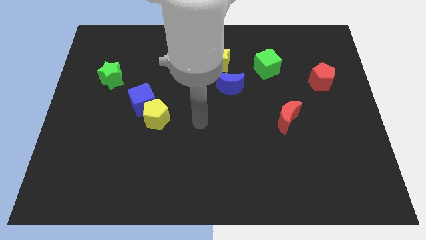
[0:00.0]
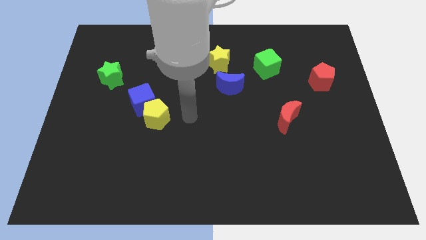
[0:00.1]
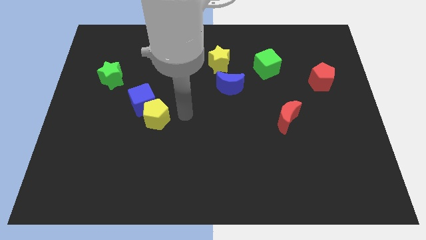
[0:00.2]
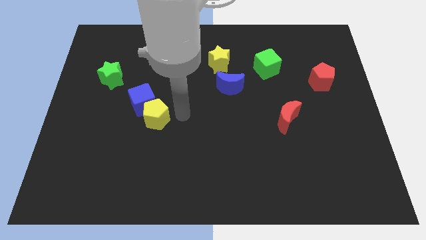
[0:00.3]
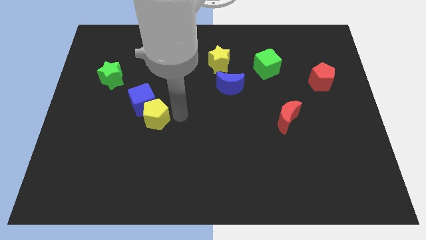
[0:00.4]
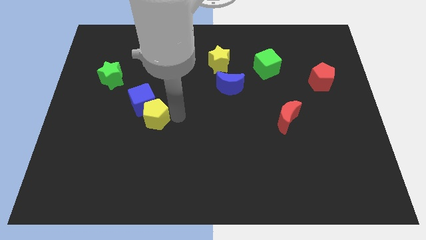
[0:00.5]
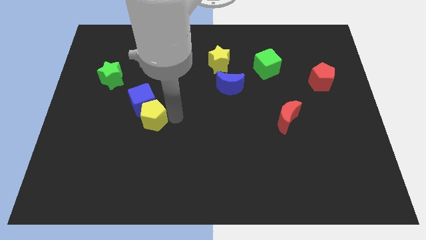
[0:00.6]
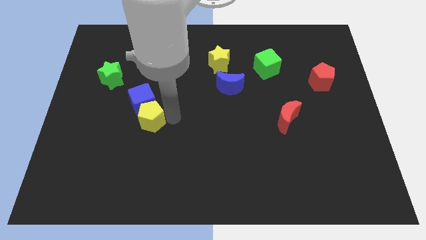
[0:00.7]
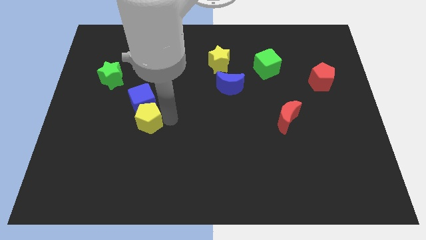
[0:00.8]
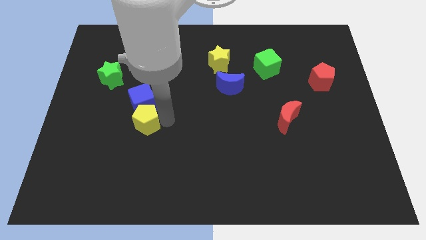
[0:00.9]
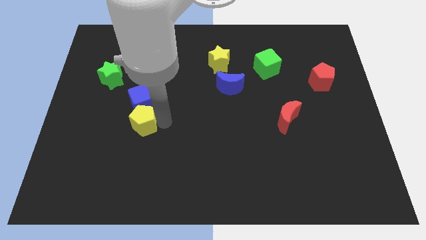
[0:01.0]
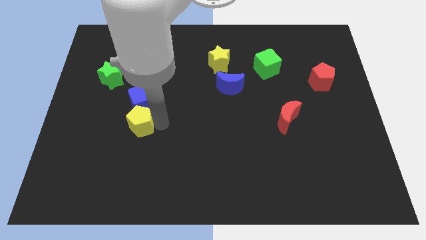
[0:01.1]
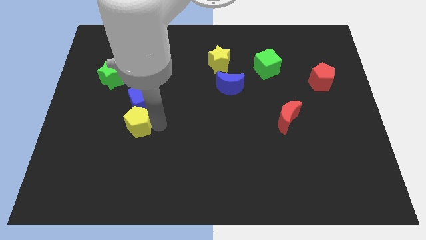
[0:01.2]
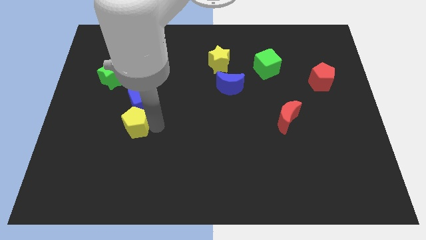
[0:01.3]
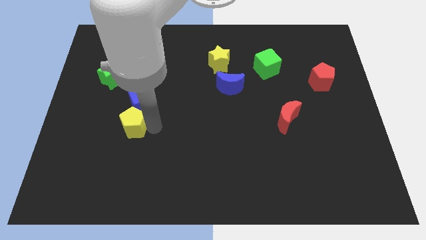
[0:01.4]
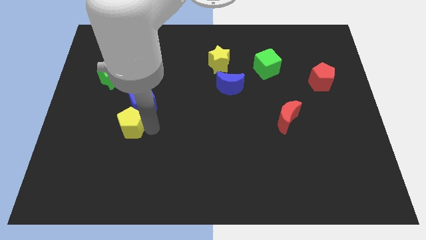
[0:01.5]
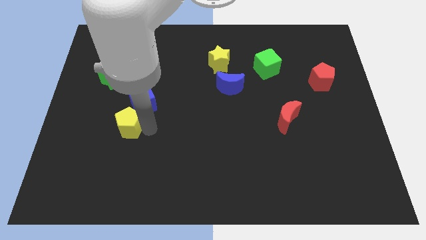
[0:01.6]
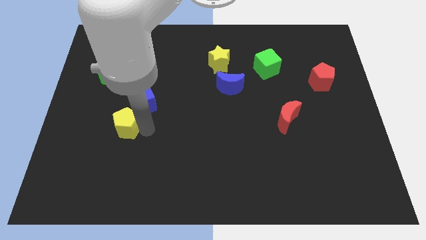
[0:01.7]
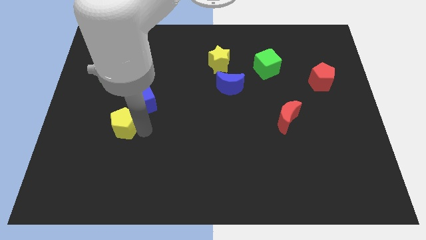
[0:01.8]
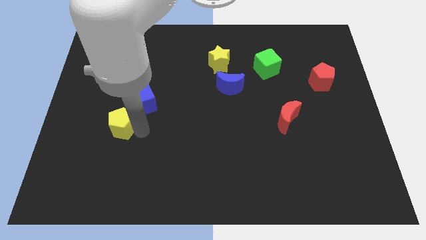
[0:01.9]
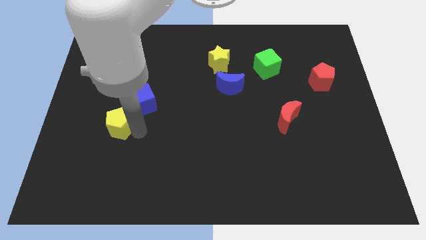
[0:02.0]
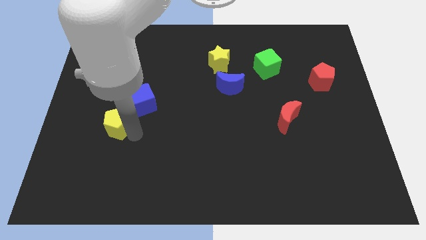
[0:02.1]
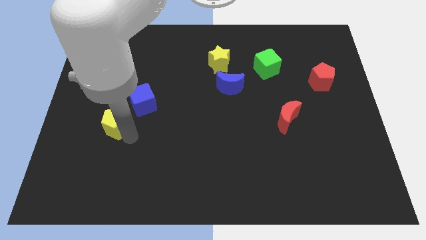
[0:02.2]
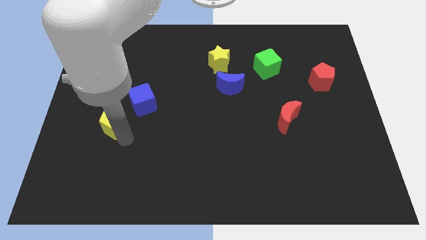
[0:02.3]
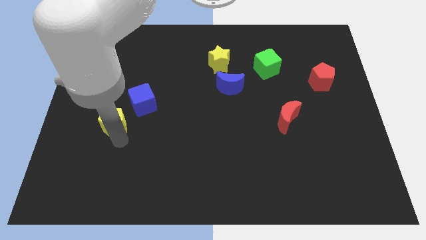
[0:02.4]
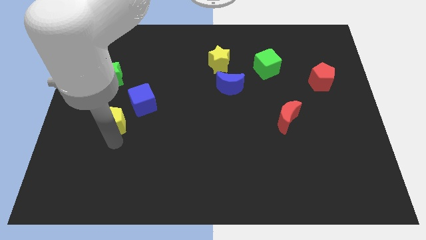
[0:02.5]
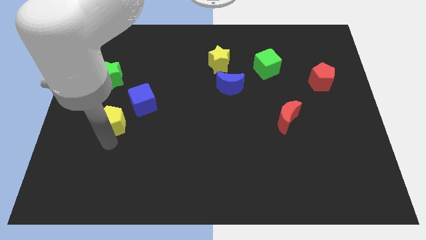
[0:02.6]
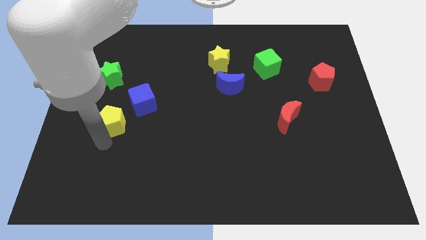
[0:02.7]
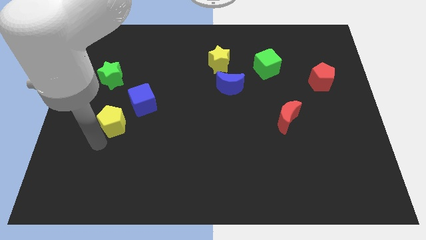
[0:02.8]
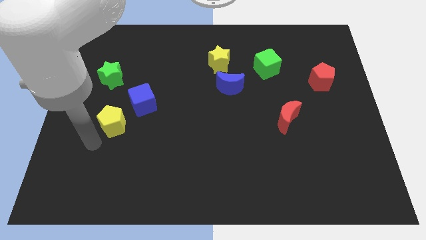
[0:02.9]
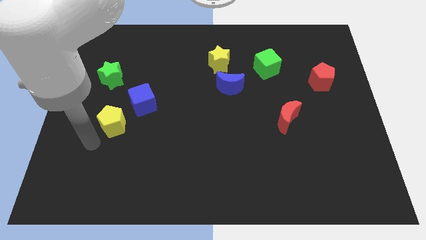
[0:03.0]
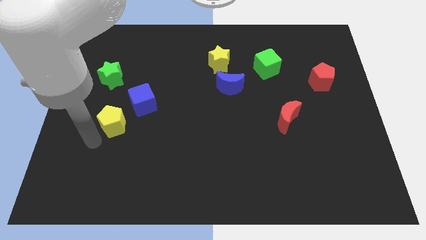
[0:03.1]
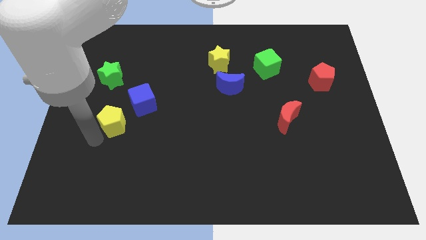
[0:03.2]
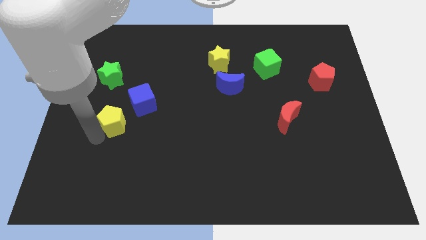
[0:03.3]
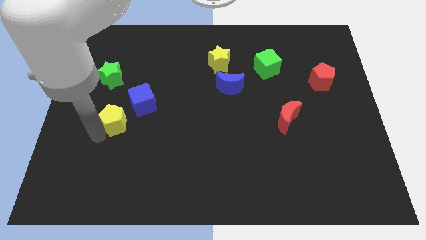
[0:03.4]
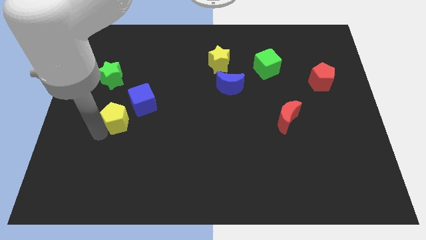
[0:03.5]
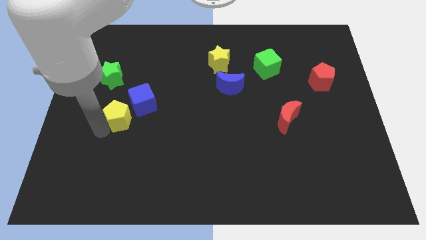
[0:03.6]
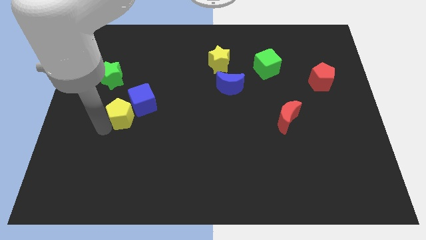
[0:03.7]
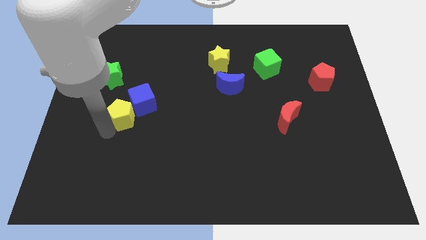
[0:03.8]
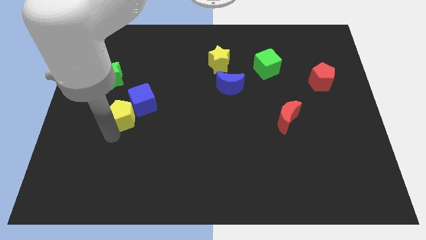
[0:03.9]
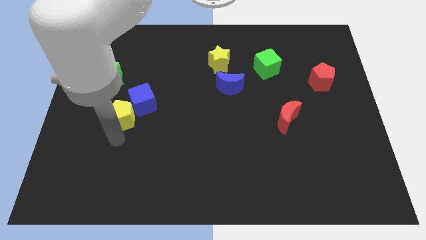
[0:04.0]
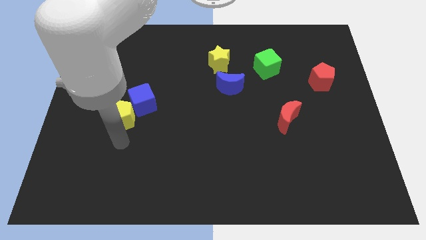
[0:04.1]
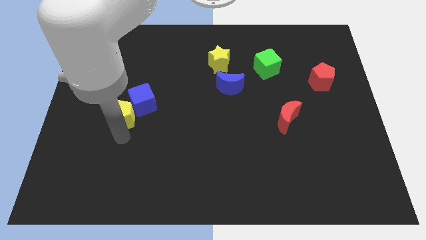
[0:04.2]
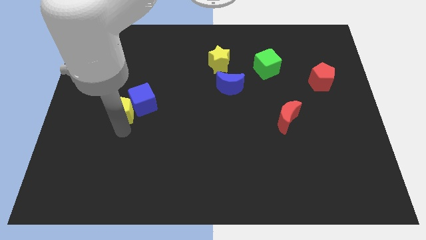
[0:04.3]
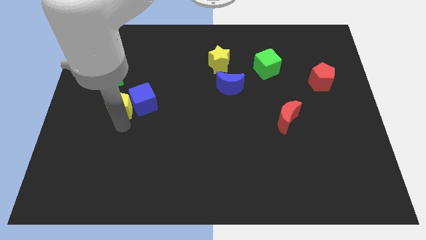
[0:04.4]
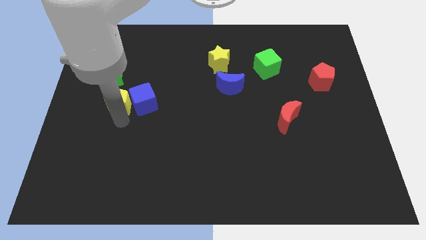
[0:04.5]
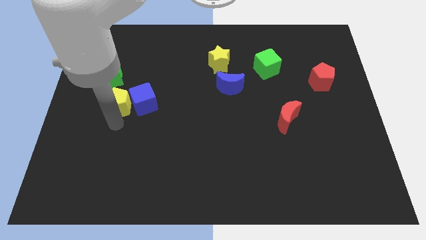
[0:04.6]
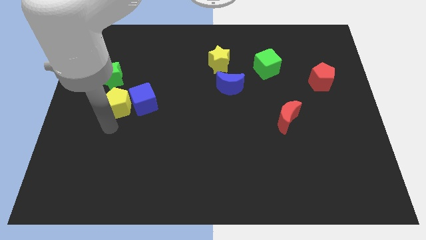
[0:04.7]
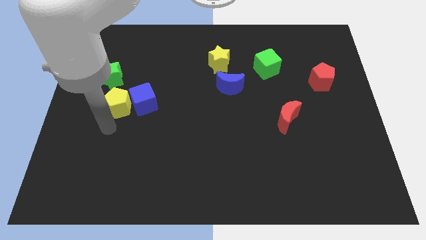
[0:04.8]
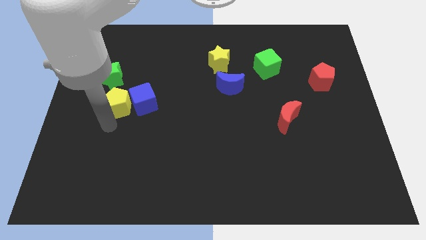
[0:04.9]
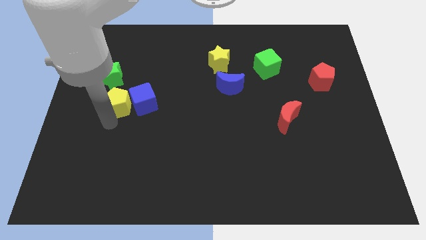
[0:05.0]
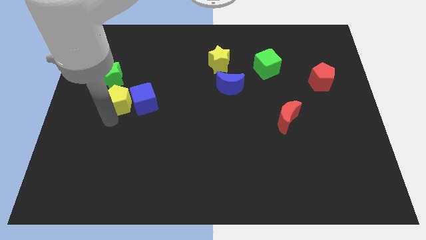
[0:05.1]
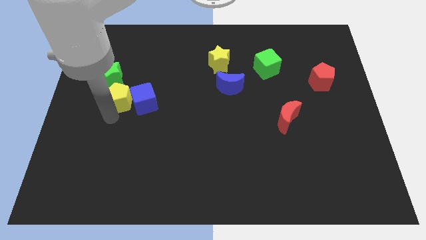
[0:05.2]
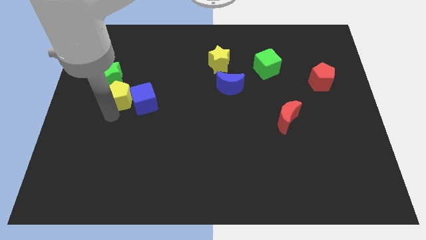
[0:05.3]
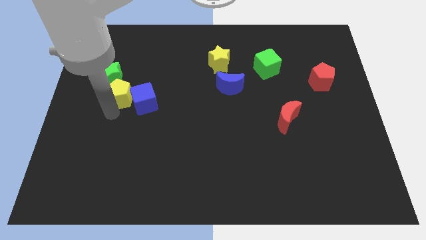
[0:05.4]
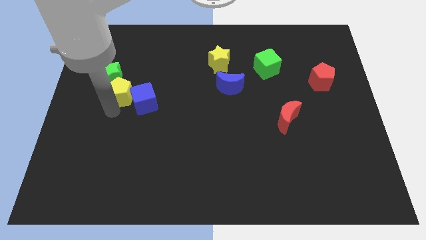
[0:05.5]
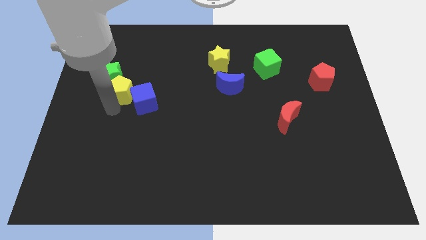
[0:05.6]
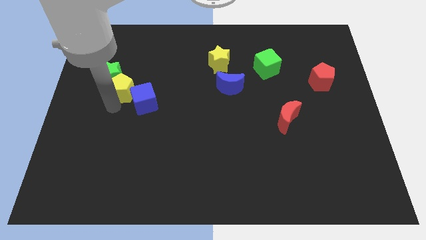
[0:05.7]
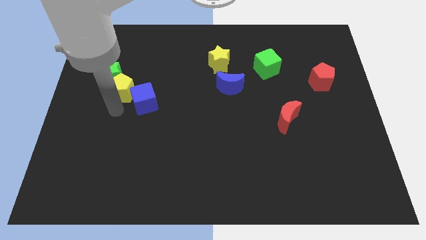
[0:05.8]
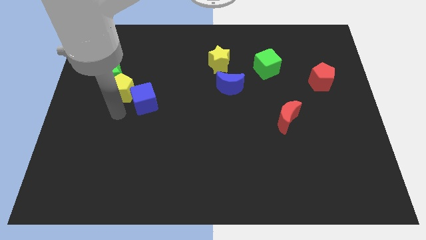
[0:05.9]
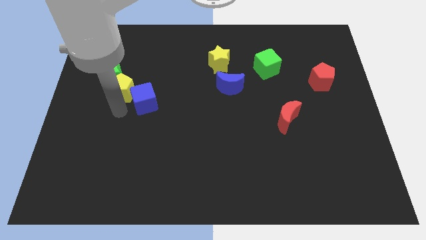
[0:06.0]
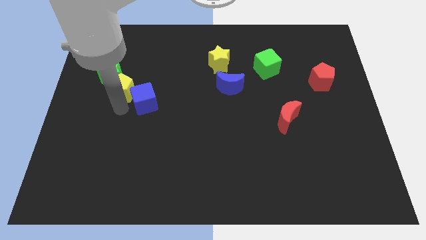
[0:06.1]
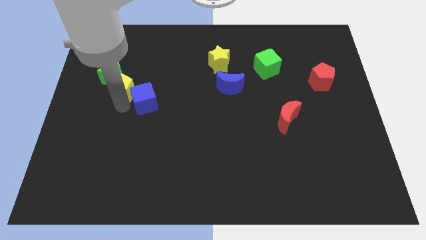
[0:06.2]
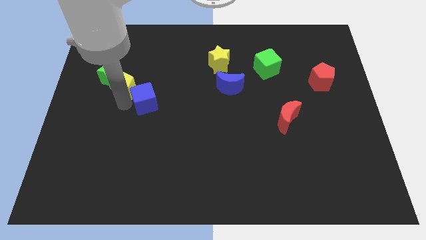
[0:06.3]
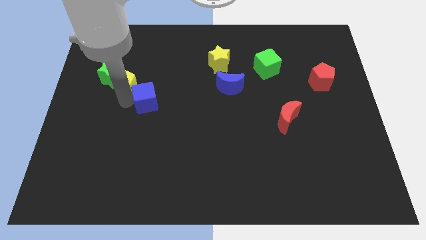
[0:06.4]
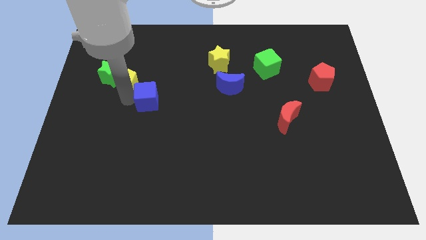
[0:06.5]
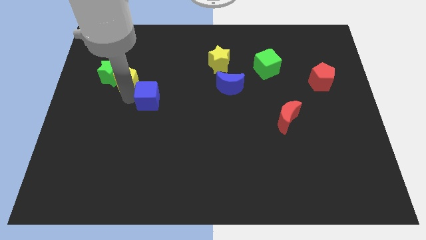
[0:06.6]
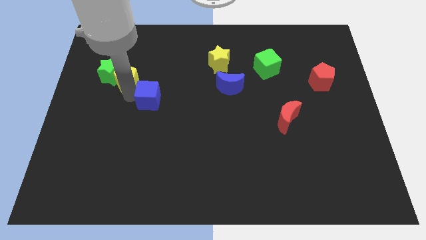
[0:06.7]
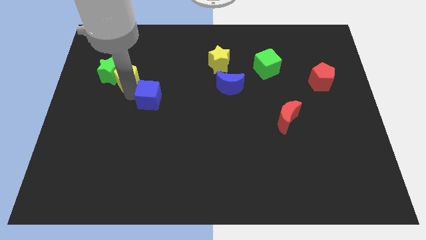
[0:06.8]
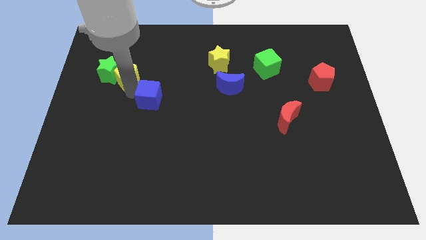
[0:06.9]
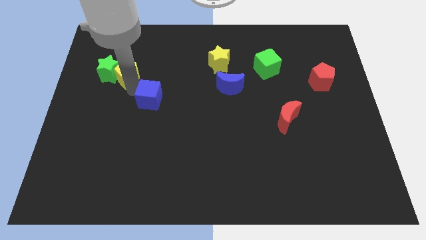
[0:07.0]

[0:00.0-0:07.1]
move the yellow pentagon diagonally up and to the right of the green star
